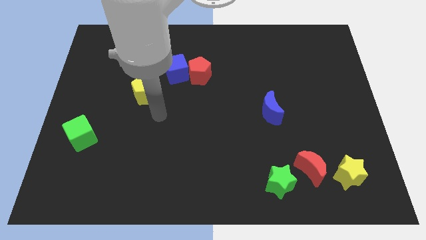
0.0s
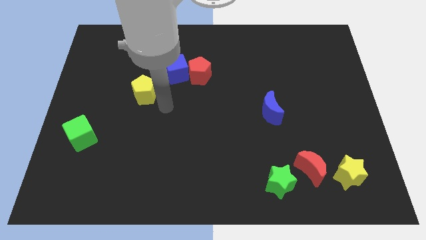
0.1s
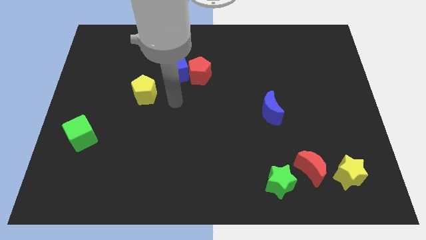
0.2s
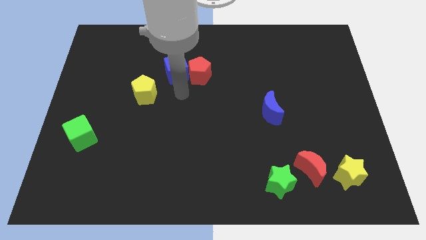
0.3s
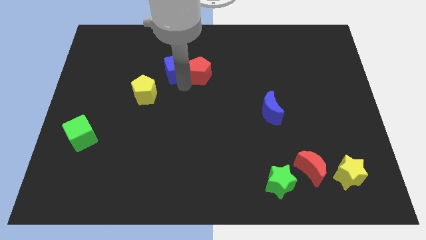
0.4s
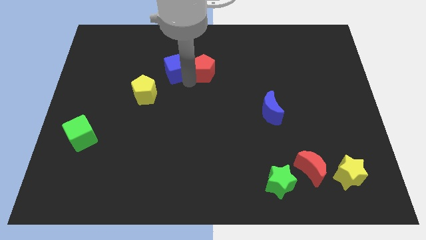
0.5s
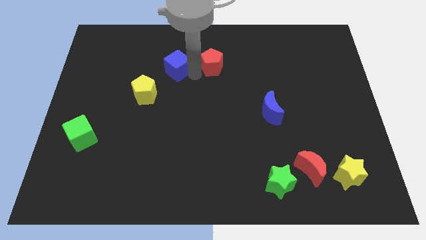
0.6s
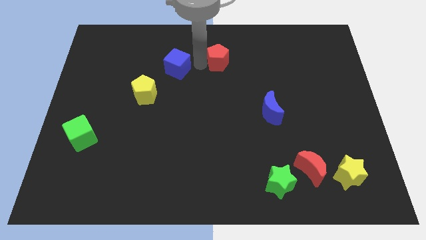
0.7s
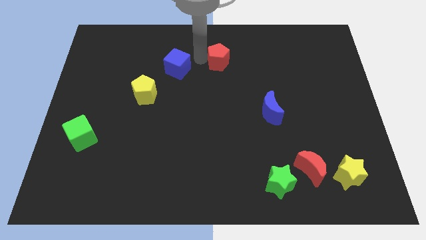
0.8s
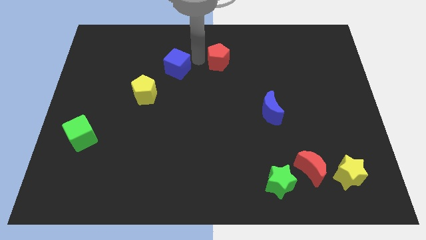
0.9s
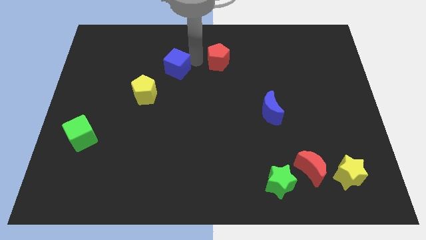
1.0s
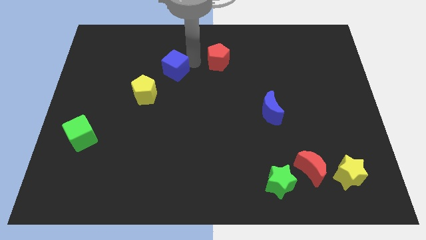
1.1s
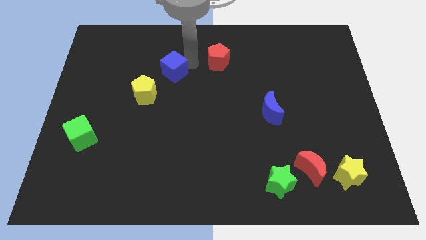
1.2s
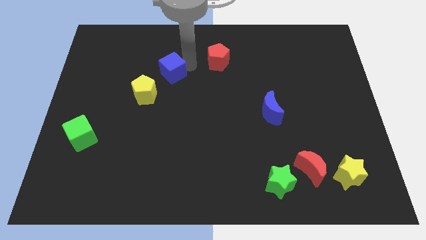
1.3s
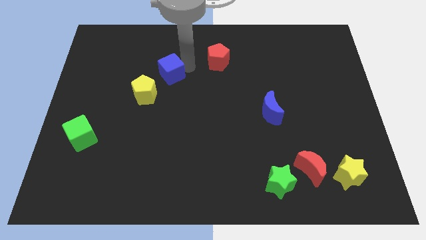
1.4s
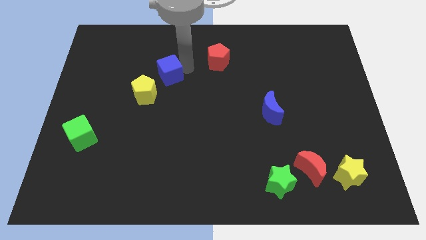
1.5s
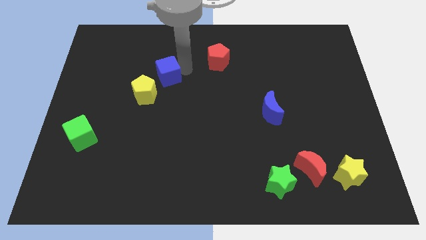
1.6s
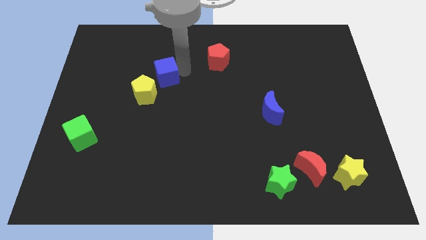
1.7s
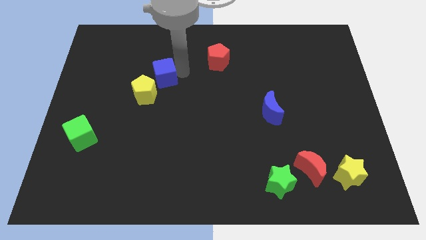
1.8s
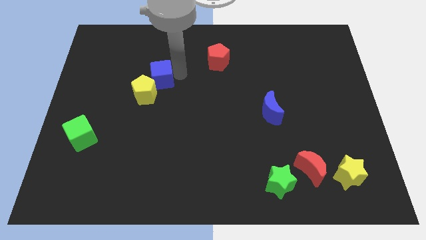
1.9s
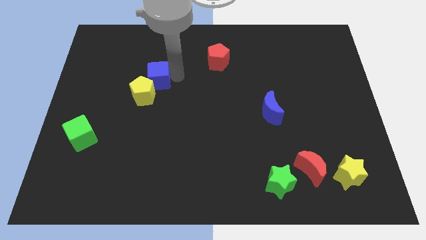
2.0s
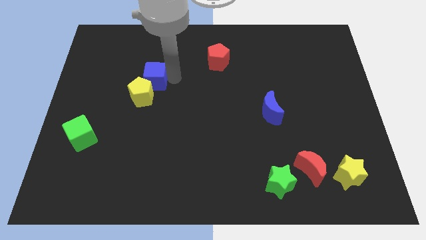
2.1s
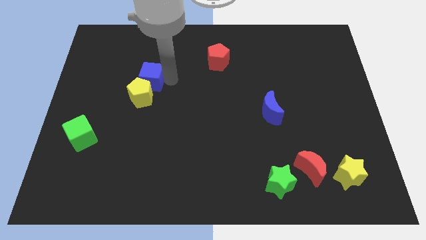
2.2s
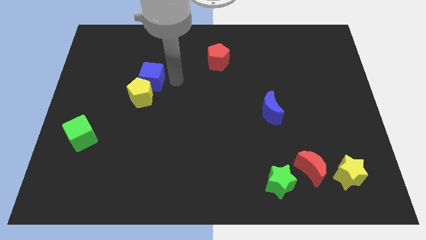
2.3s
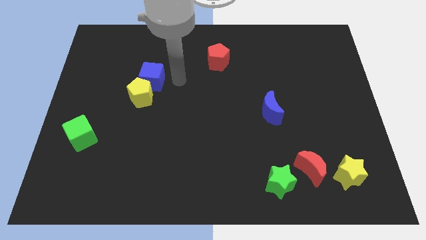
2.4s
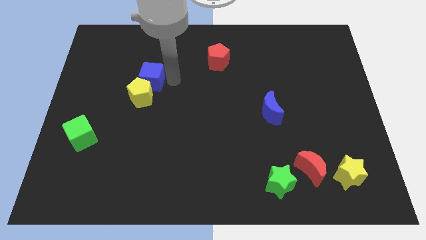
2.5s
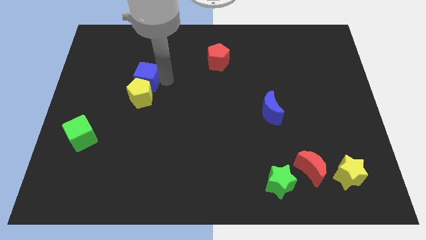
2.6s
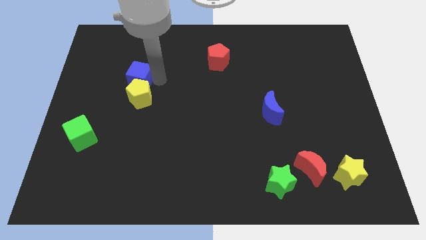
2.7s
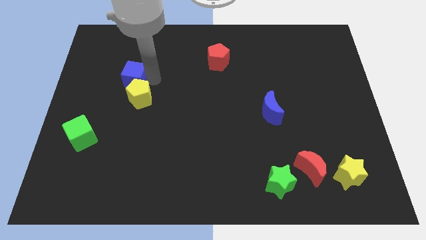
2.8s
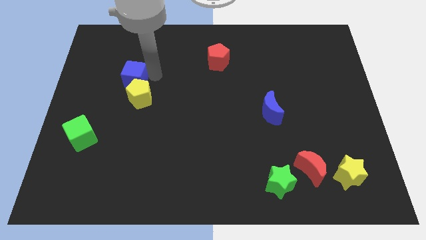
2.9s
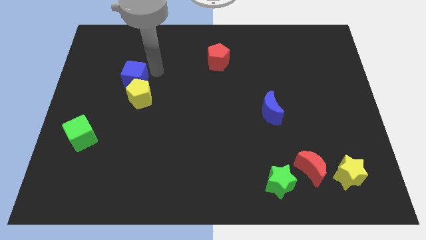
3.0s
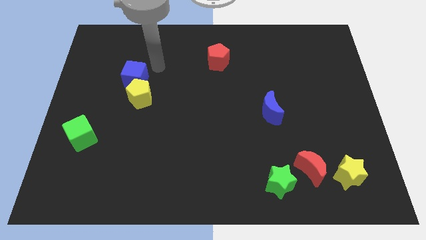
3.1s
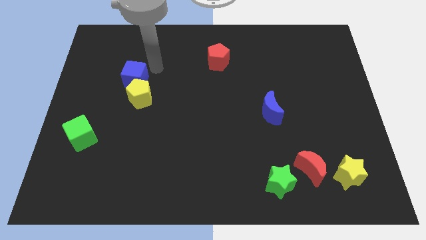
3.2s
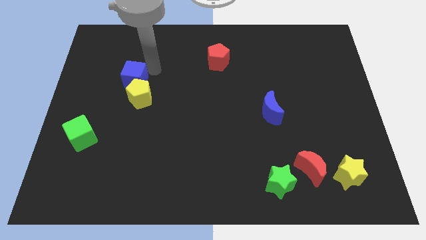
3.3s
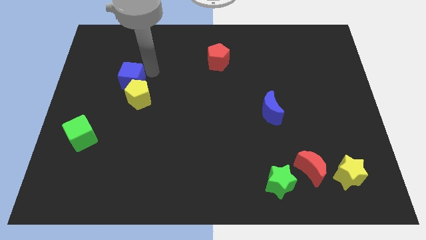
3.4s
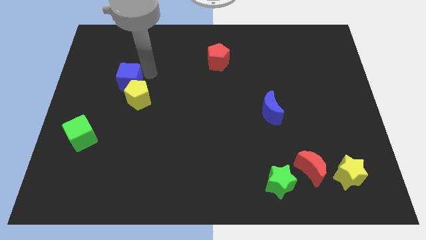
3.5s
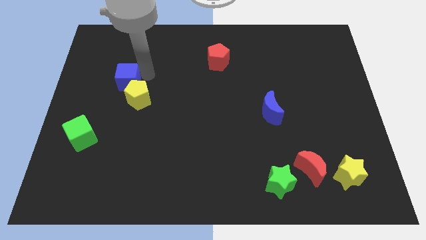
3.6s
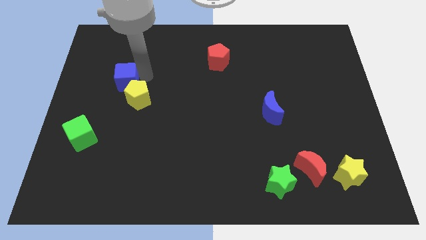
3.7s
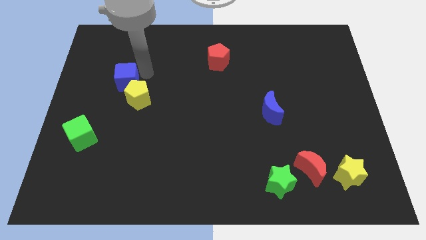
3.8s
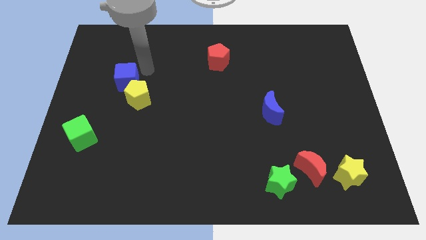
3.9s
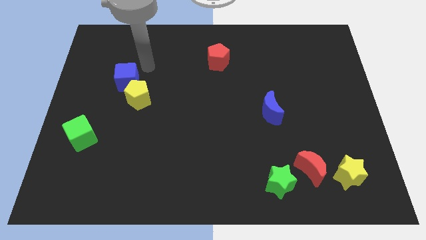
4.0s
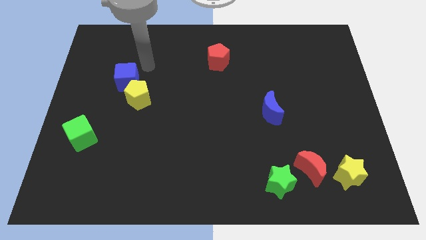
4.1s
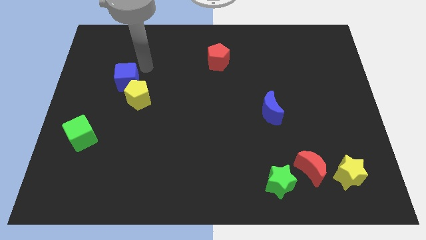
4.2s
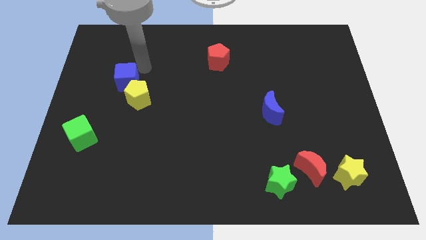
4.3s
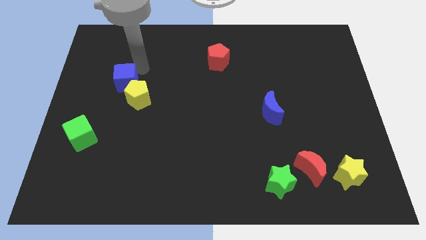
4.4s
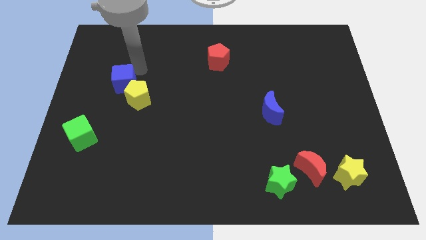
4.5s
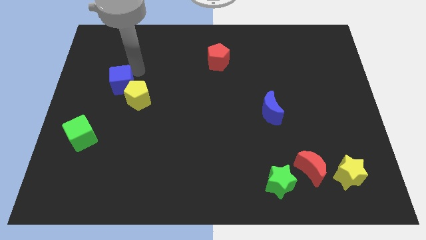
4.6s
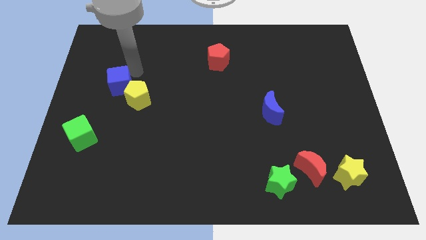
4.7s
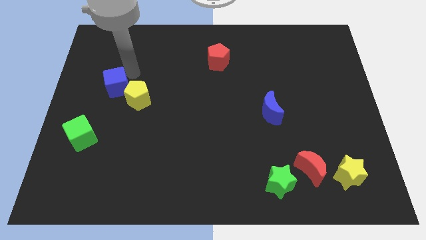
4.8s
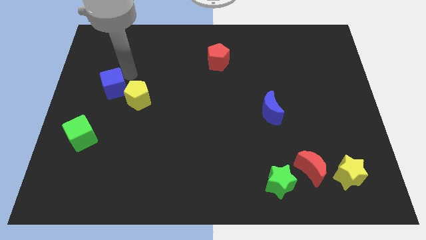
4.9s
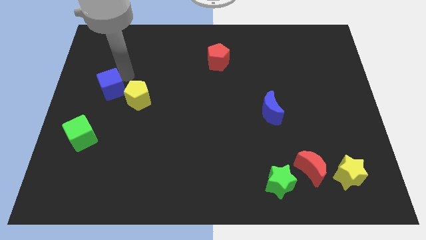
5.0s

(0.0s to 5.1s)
put the blue cube to the top of the green cube

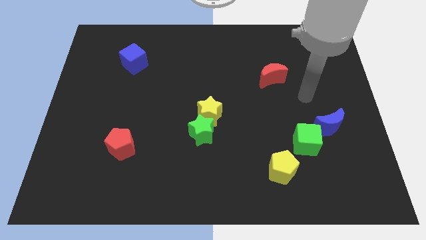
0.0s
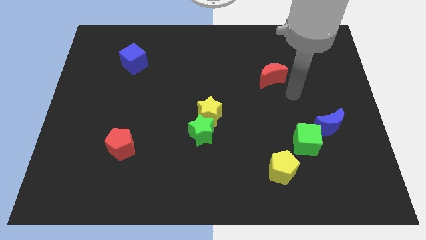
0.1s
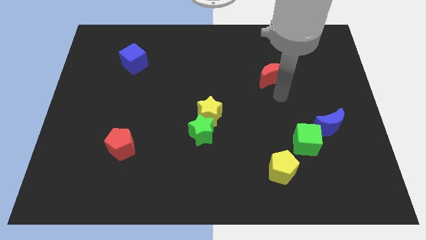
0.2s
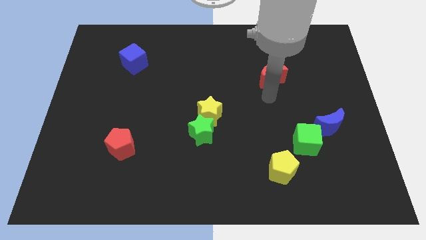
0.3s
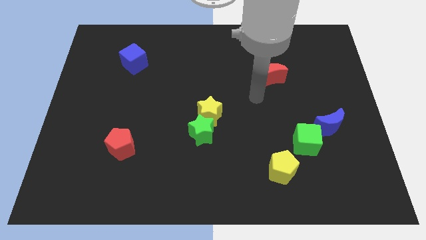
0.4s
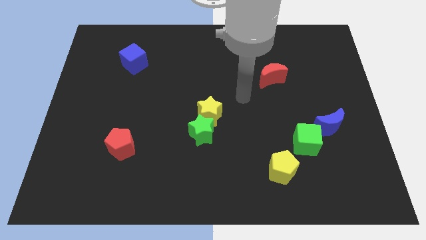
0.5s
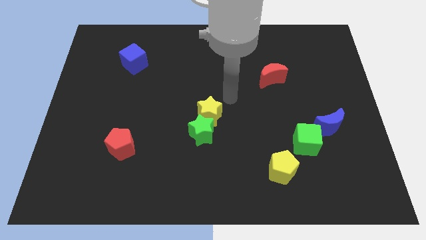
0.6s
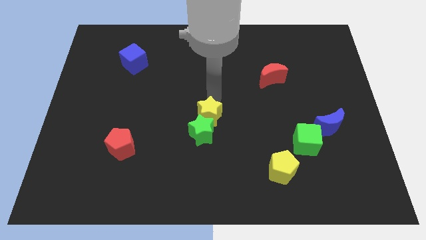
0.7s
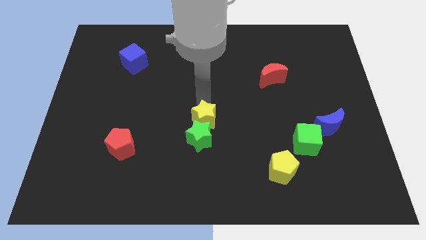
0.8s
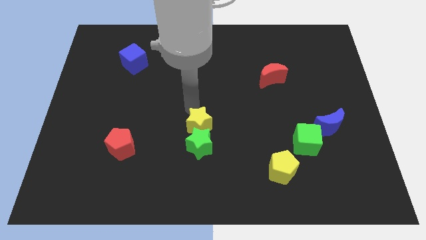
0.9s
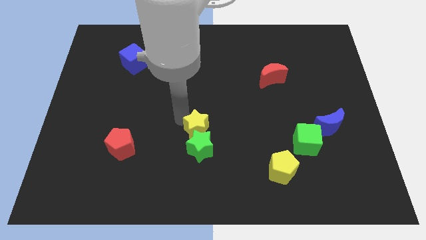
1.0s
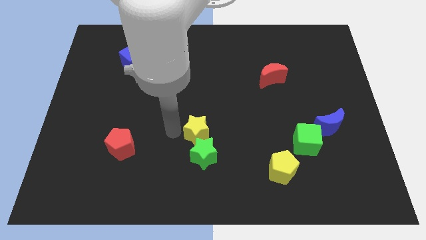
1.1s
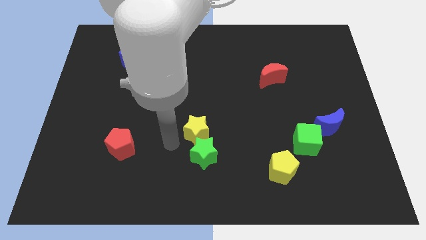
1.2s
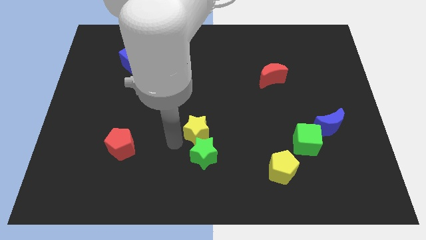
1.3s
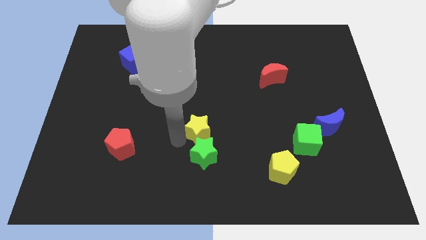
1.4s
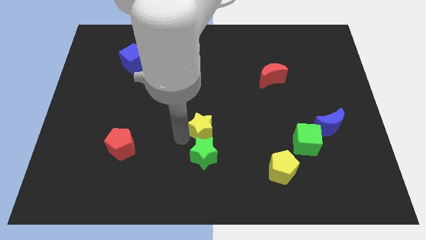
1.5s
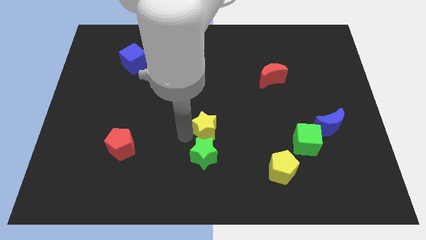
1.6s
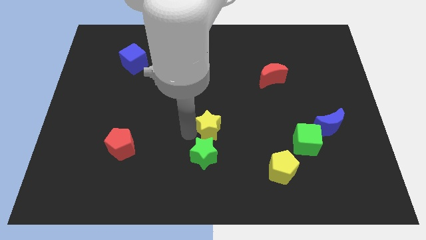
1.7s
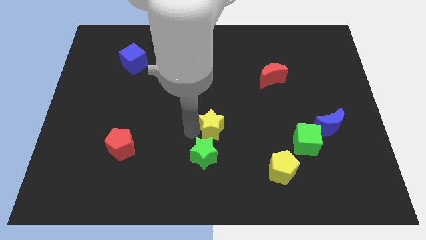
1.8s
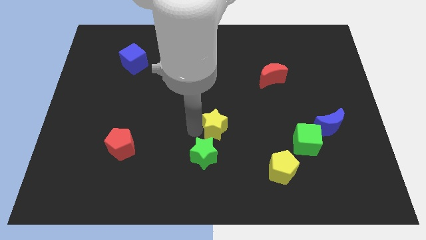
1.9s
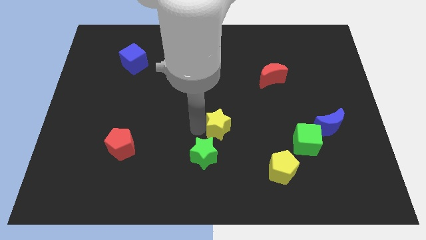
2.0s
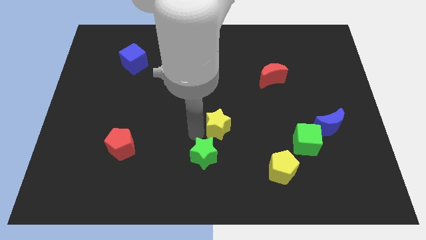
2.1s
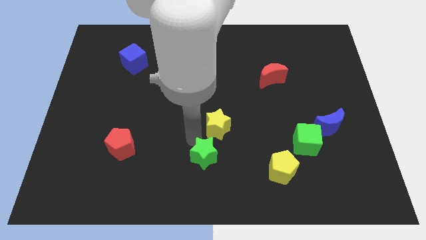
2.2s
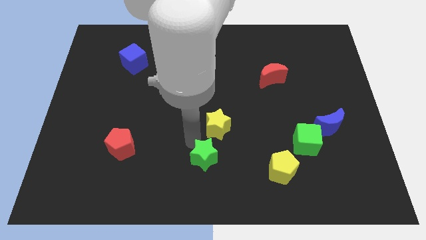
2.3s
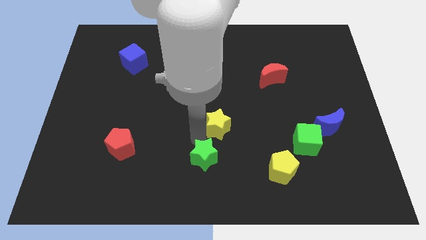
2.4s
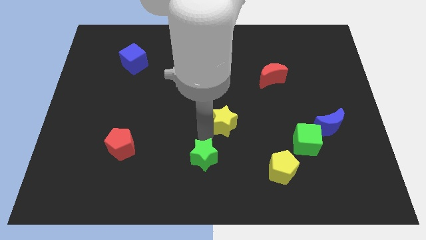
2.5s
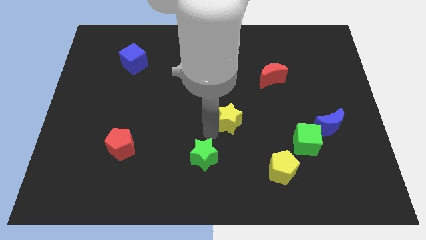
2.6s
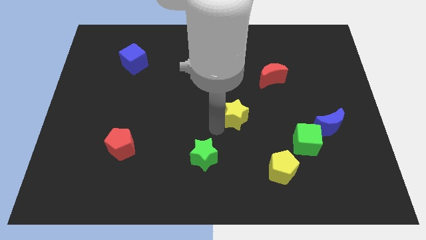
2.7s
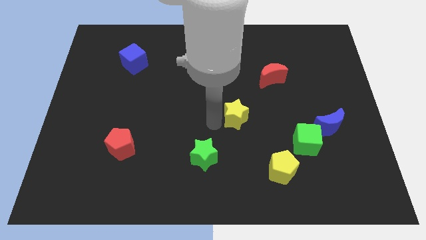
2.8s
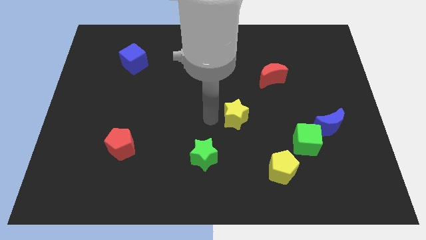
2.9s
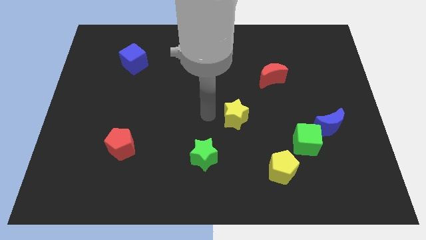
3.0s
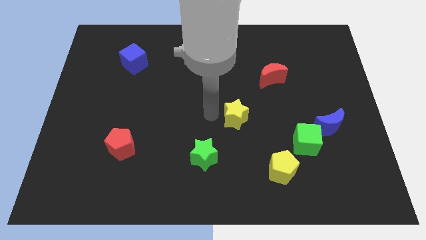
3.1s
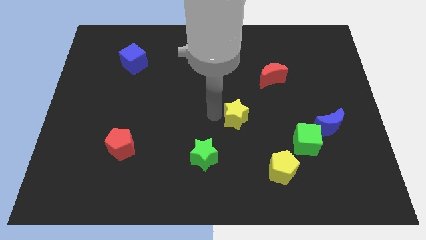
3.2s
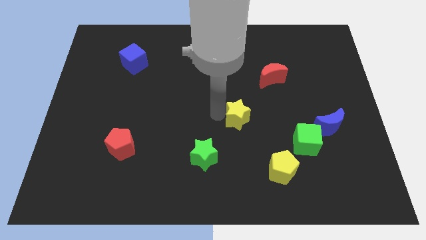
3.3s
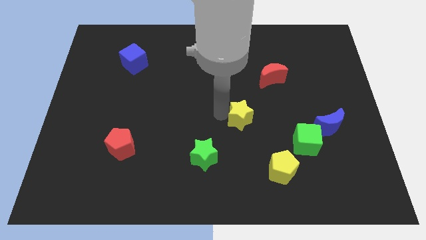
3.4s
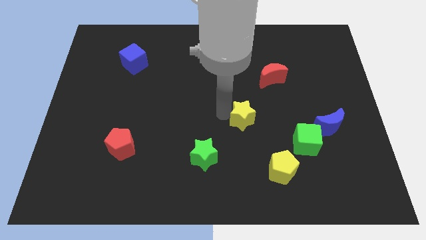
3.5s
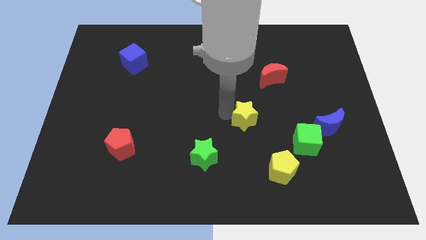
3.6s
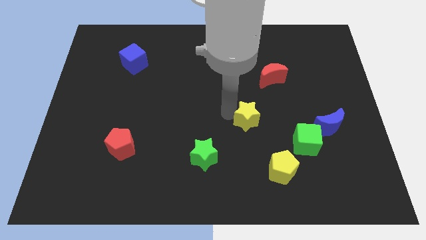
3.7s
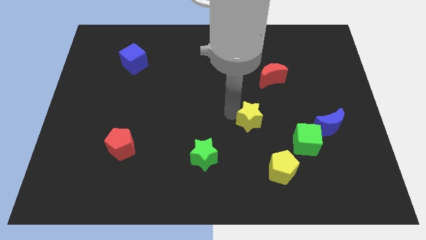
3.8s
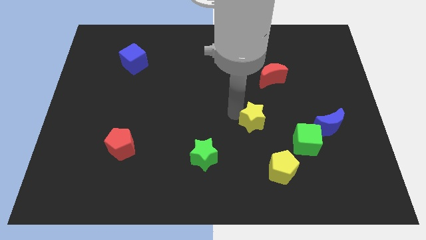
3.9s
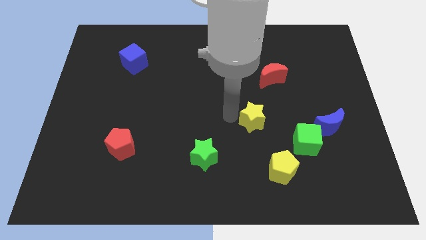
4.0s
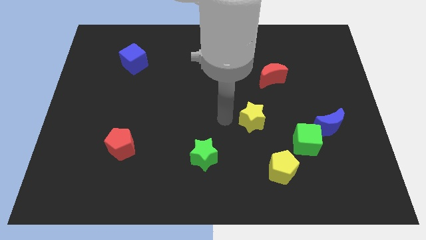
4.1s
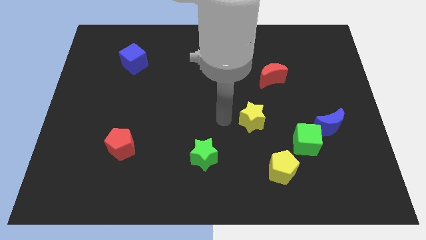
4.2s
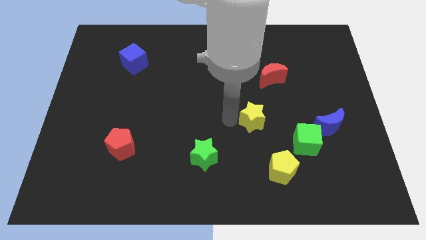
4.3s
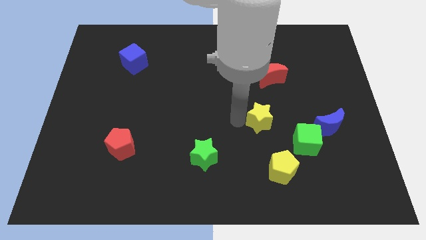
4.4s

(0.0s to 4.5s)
put the yellow star to the top left side of the green cube
